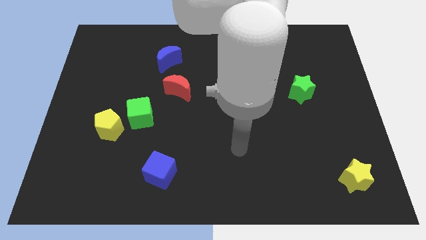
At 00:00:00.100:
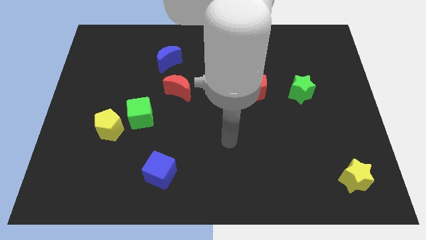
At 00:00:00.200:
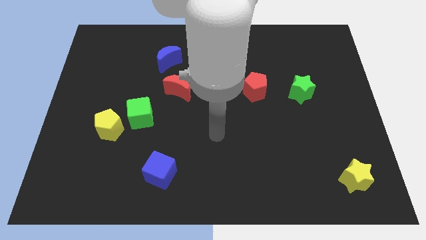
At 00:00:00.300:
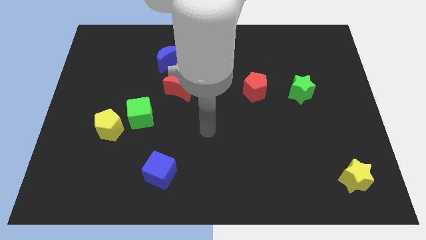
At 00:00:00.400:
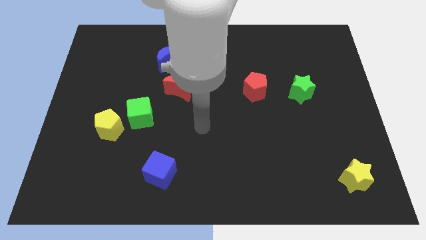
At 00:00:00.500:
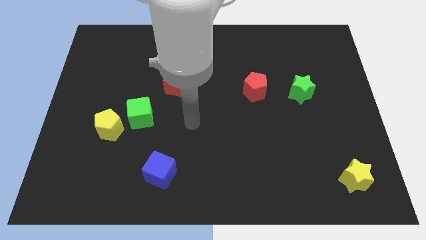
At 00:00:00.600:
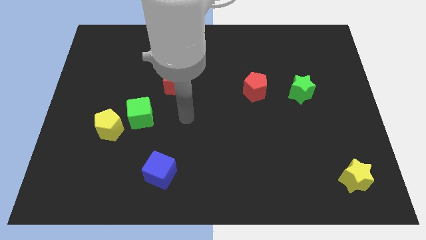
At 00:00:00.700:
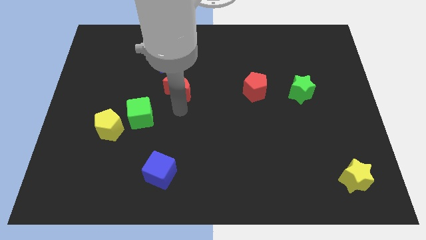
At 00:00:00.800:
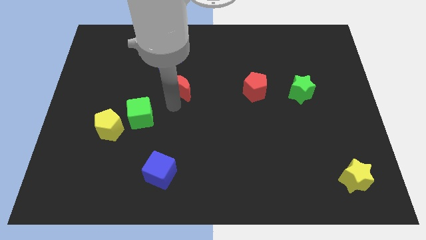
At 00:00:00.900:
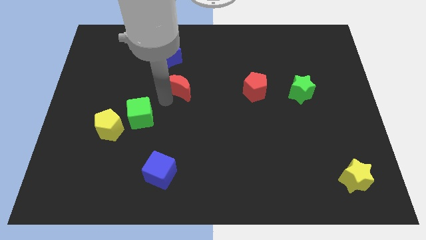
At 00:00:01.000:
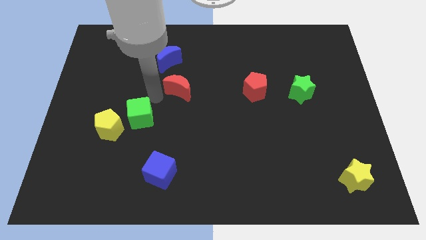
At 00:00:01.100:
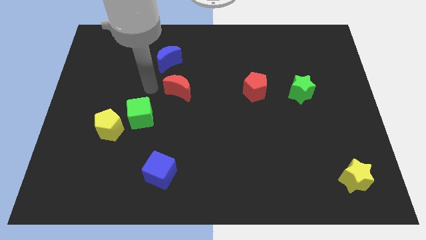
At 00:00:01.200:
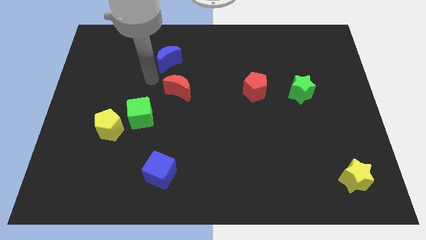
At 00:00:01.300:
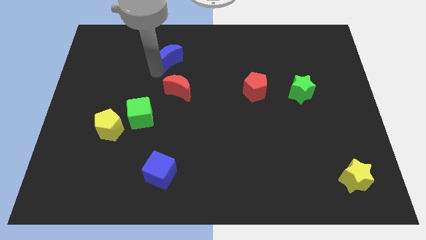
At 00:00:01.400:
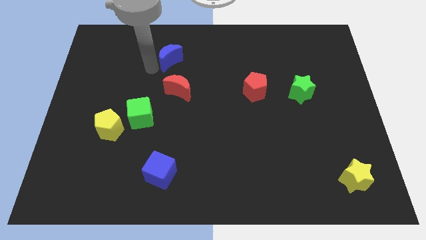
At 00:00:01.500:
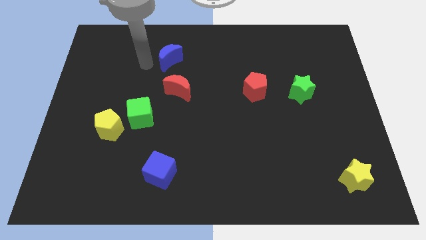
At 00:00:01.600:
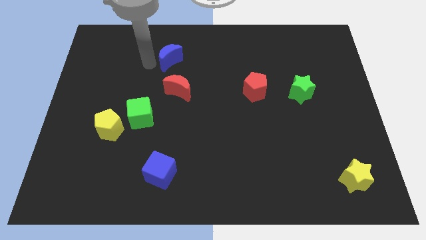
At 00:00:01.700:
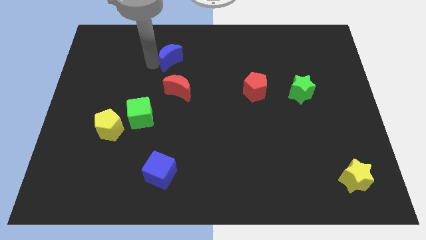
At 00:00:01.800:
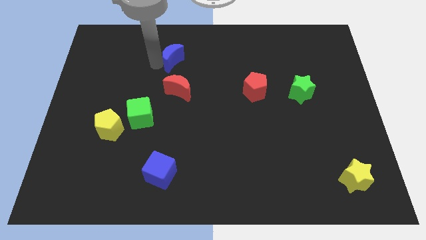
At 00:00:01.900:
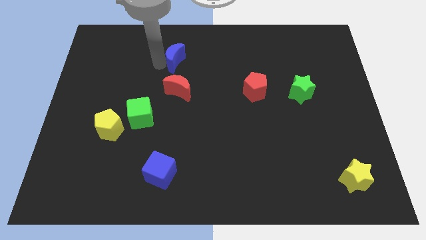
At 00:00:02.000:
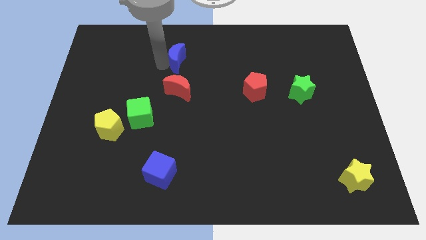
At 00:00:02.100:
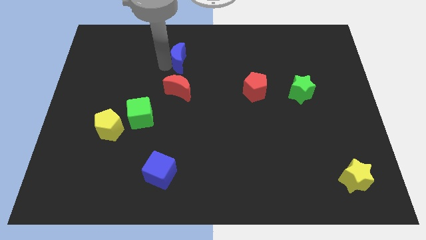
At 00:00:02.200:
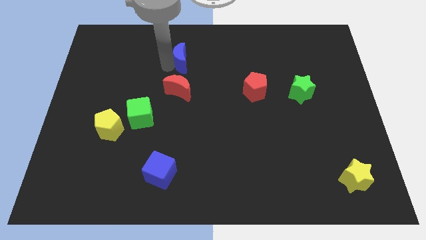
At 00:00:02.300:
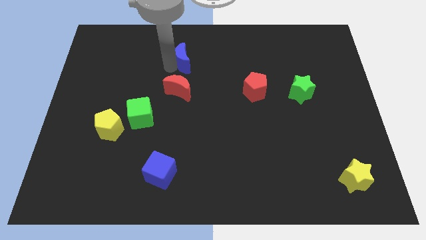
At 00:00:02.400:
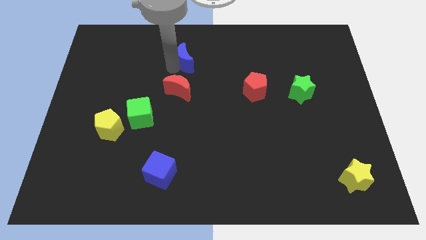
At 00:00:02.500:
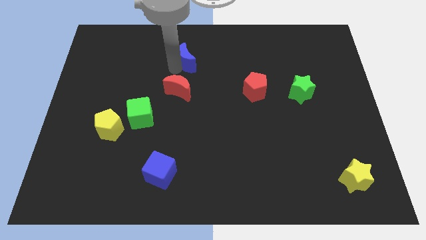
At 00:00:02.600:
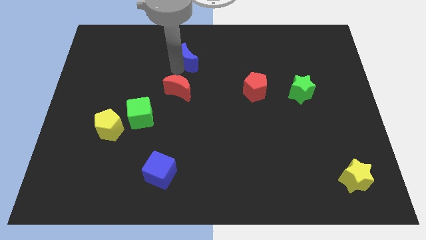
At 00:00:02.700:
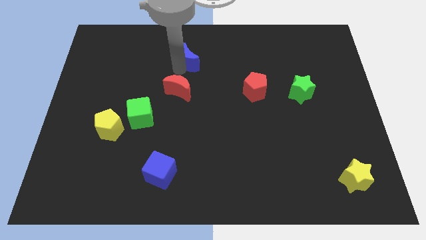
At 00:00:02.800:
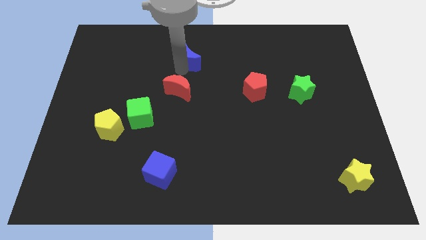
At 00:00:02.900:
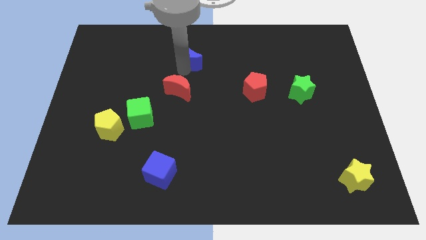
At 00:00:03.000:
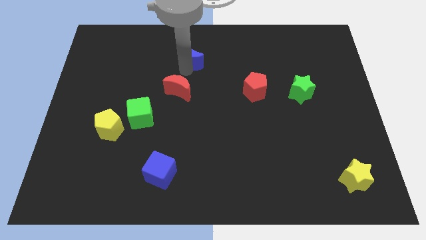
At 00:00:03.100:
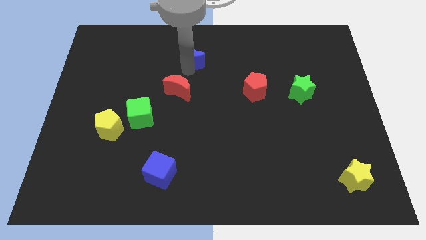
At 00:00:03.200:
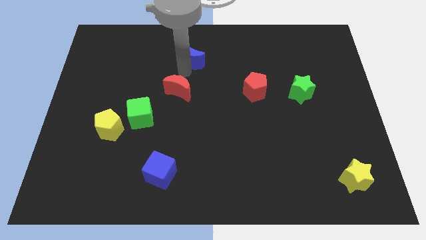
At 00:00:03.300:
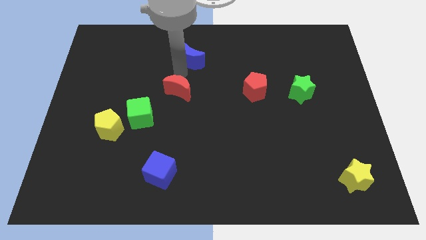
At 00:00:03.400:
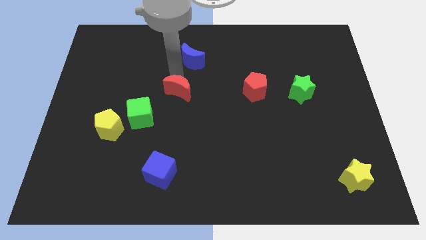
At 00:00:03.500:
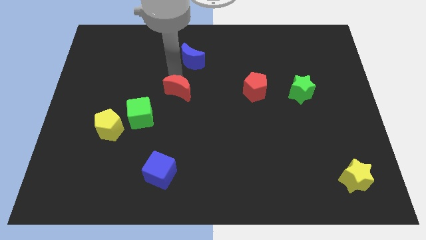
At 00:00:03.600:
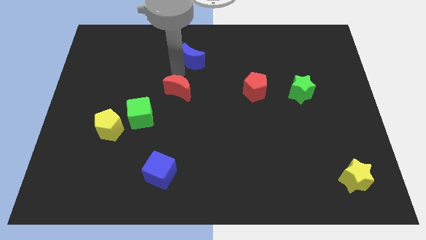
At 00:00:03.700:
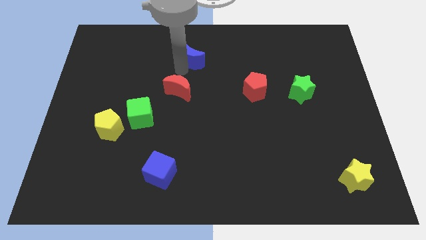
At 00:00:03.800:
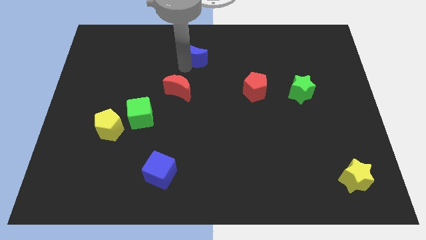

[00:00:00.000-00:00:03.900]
slightly slide the blue moon to the right

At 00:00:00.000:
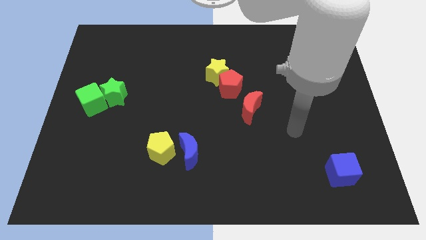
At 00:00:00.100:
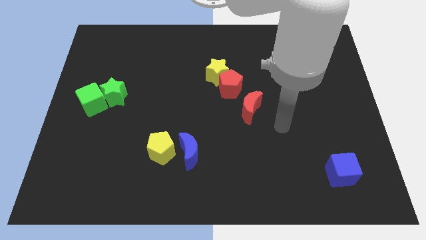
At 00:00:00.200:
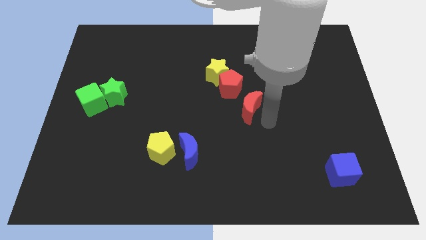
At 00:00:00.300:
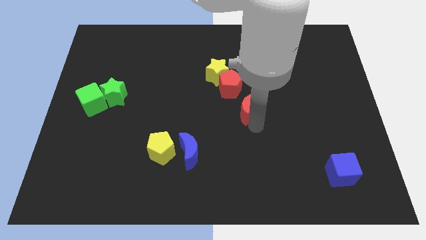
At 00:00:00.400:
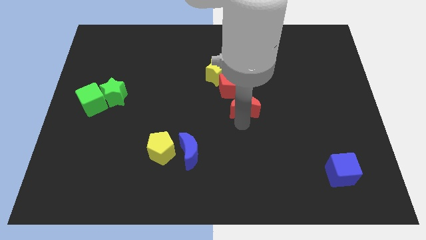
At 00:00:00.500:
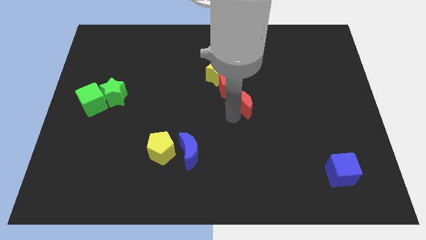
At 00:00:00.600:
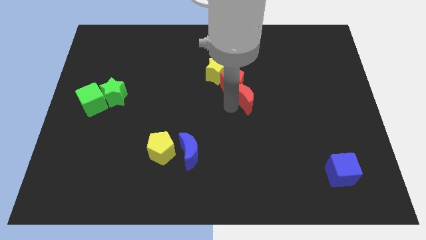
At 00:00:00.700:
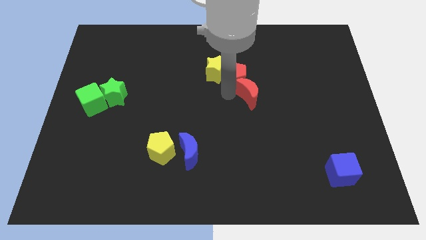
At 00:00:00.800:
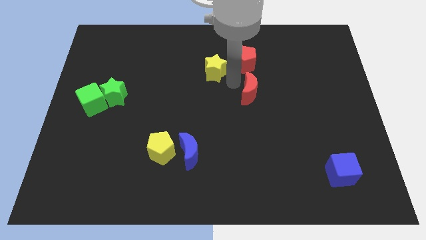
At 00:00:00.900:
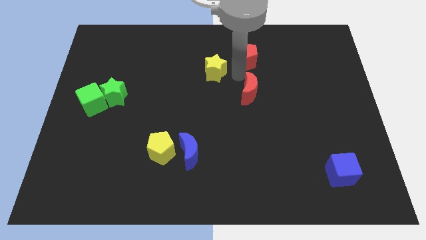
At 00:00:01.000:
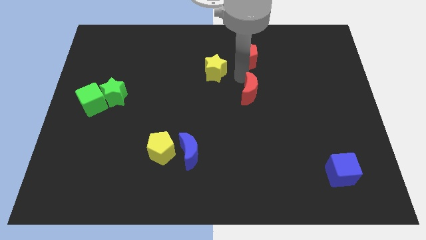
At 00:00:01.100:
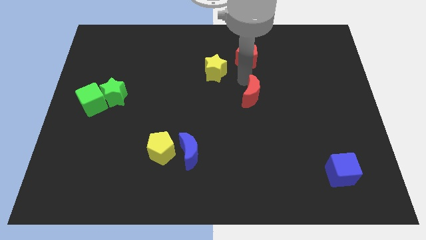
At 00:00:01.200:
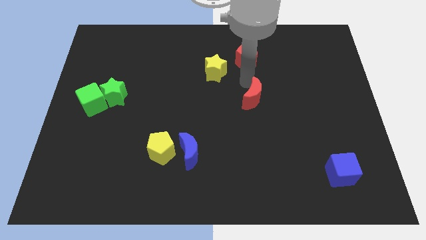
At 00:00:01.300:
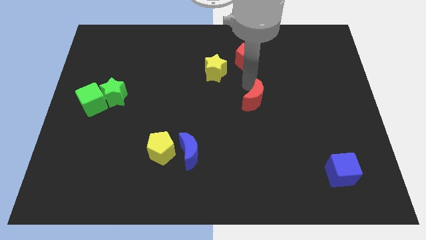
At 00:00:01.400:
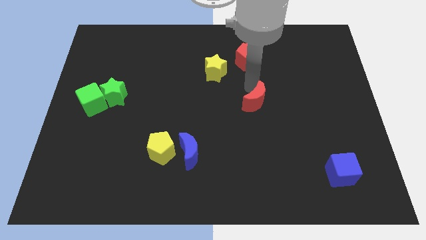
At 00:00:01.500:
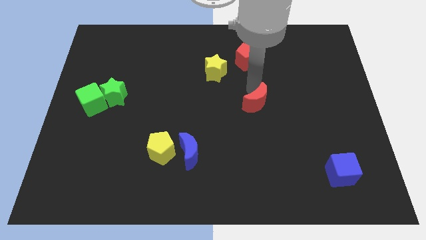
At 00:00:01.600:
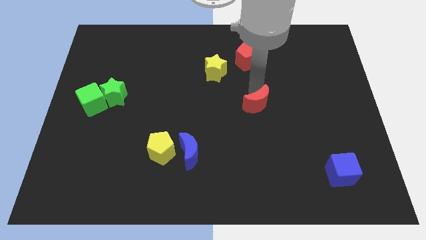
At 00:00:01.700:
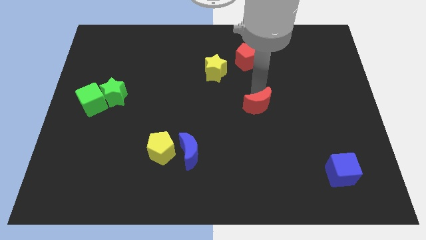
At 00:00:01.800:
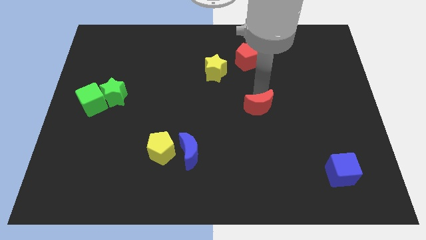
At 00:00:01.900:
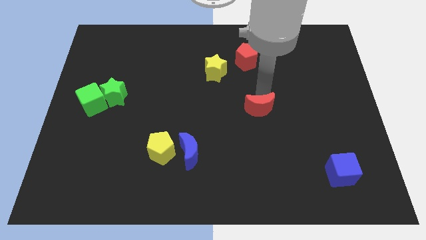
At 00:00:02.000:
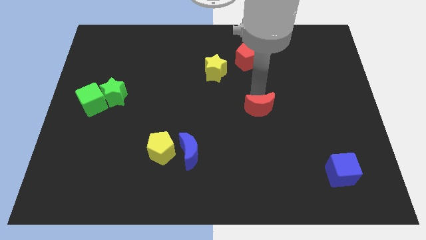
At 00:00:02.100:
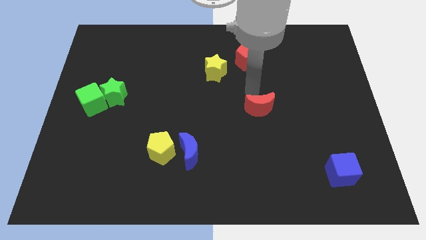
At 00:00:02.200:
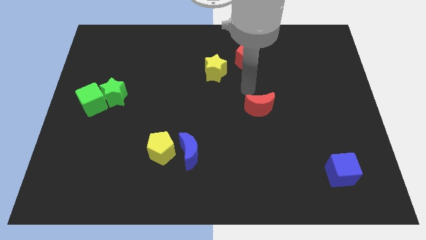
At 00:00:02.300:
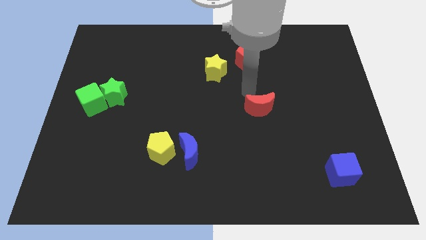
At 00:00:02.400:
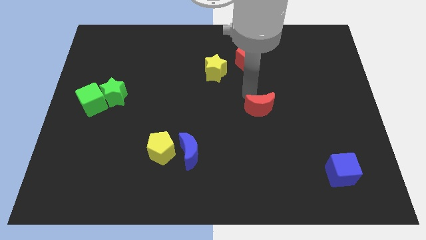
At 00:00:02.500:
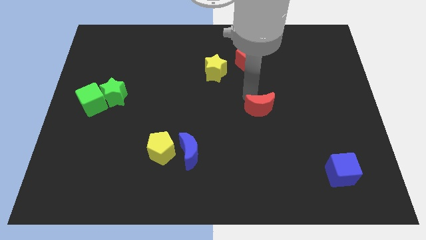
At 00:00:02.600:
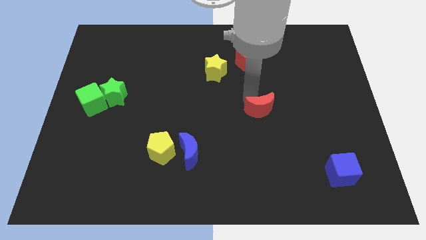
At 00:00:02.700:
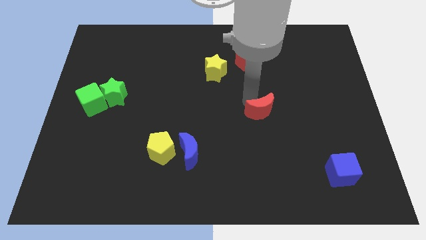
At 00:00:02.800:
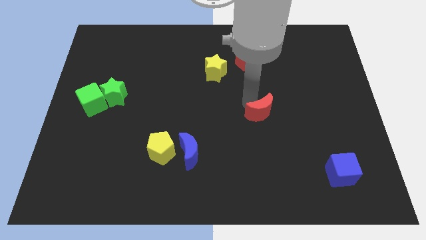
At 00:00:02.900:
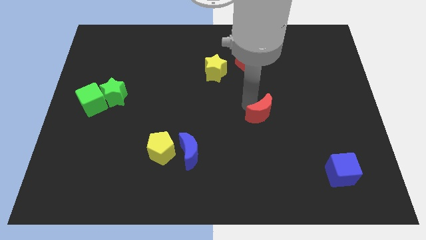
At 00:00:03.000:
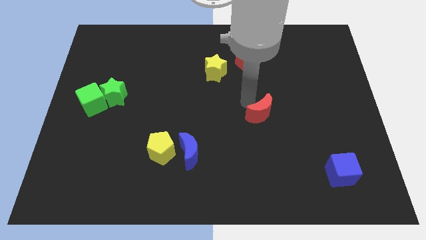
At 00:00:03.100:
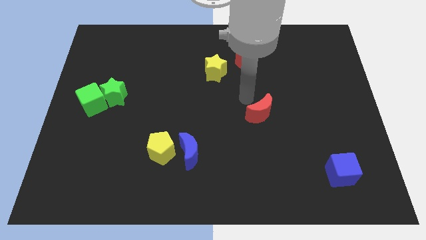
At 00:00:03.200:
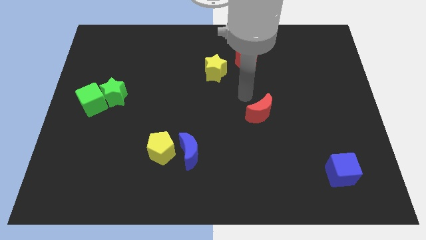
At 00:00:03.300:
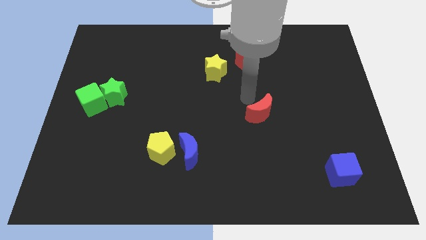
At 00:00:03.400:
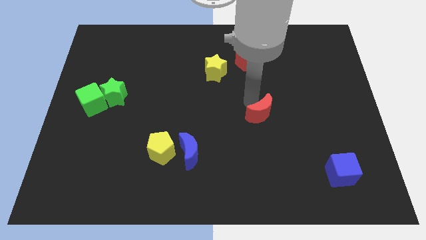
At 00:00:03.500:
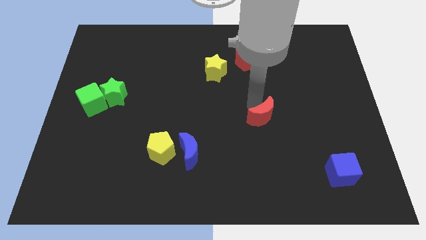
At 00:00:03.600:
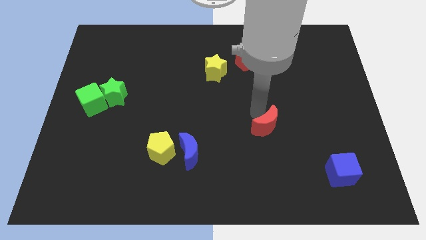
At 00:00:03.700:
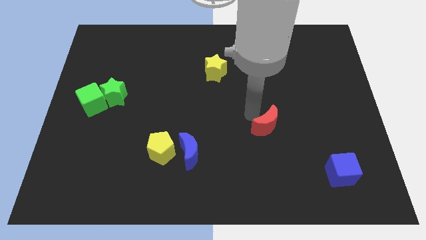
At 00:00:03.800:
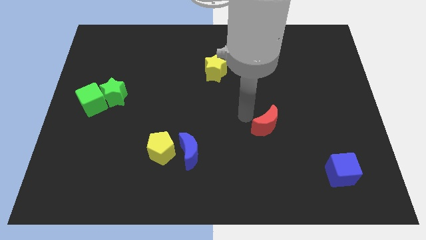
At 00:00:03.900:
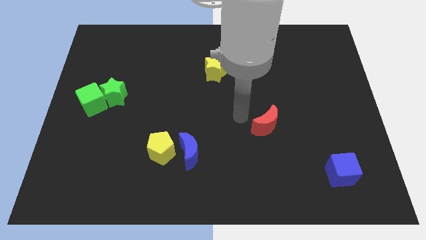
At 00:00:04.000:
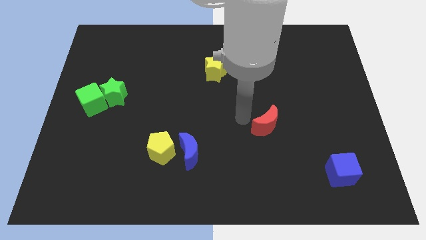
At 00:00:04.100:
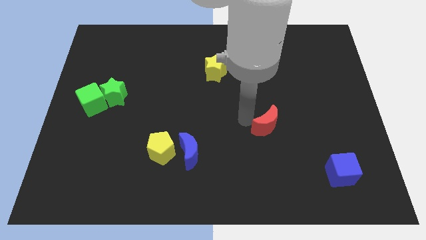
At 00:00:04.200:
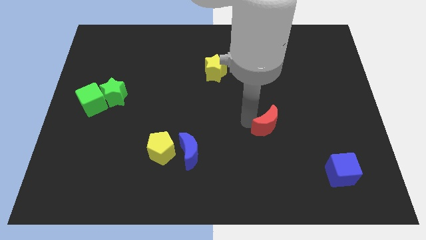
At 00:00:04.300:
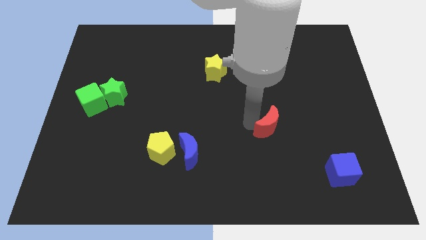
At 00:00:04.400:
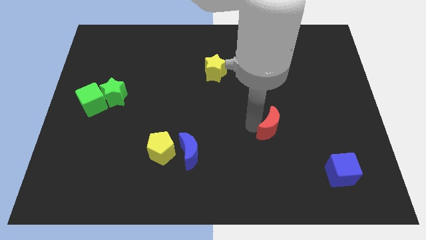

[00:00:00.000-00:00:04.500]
push the red moon down and right a little
